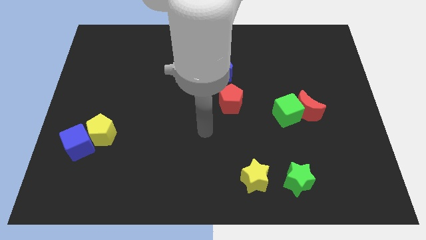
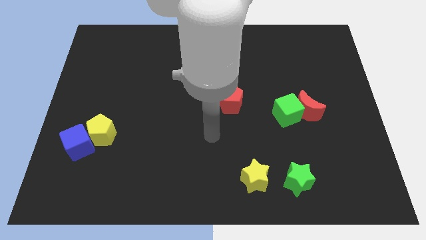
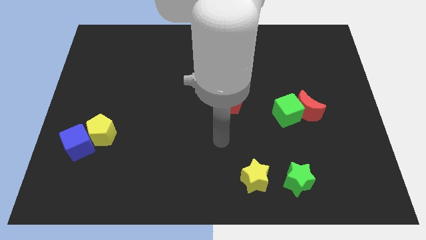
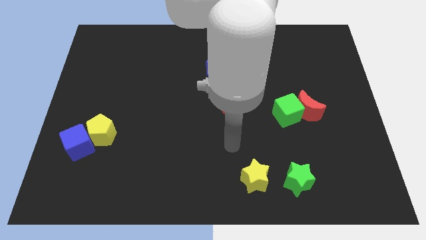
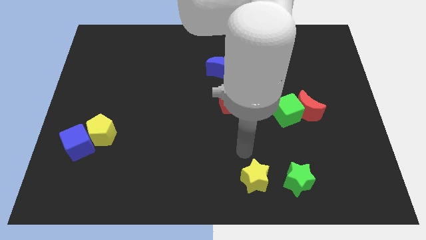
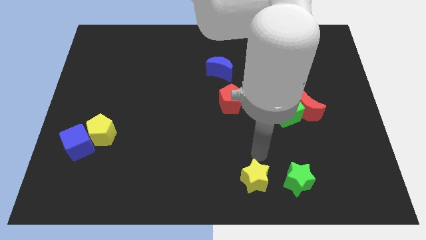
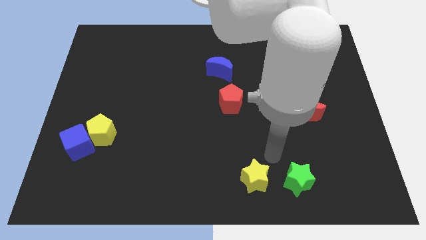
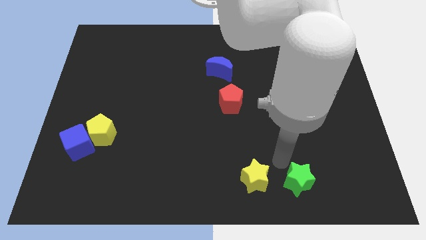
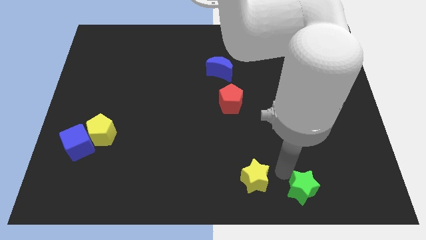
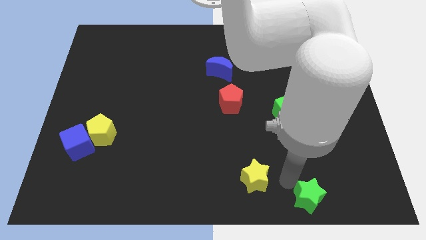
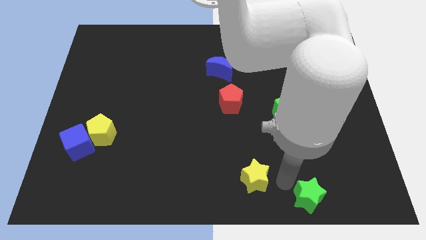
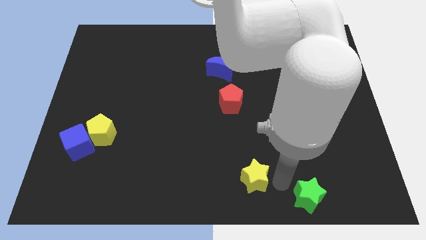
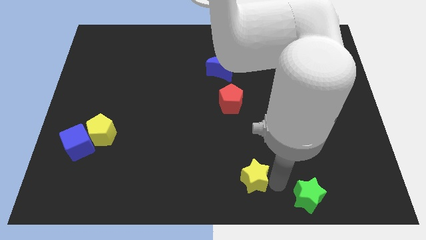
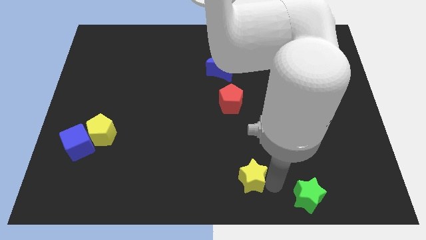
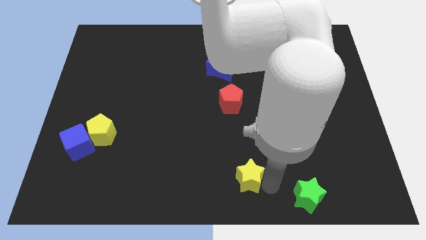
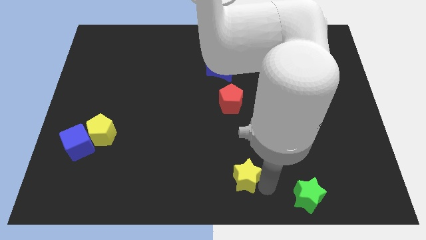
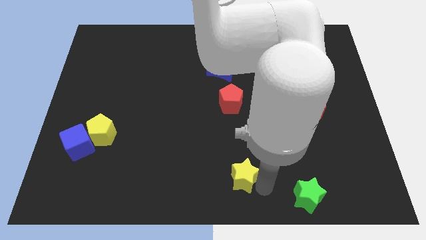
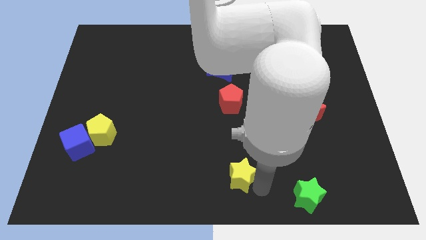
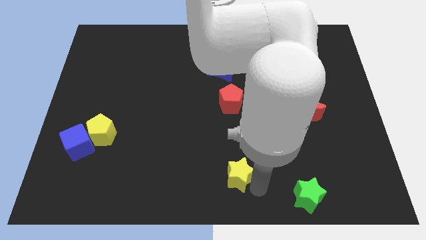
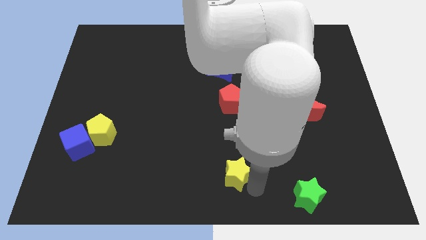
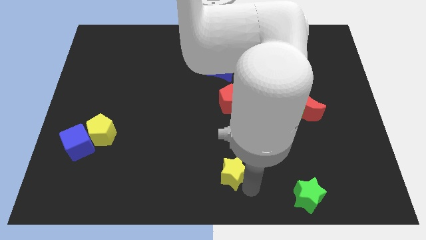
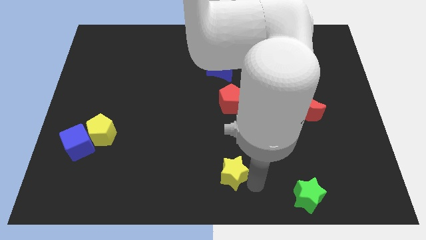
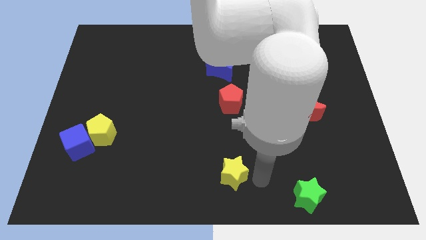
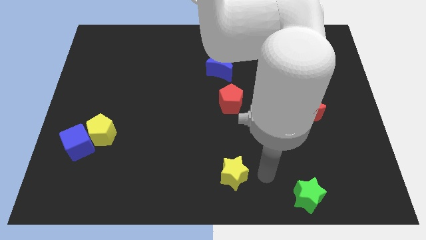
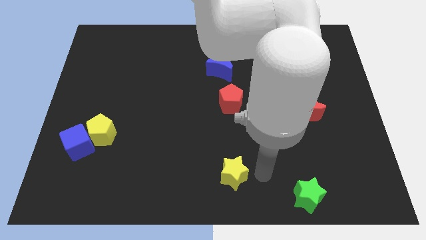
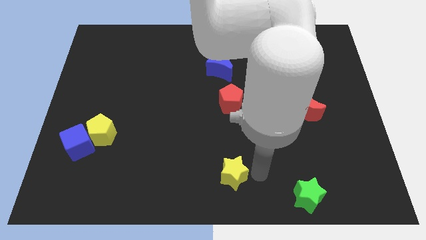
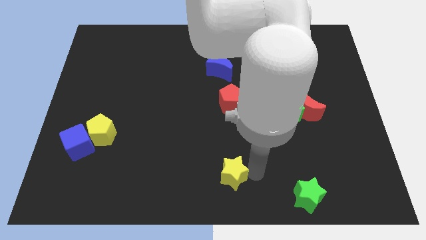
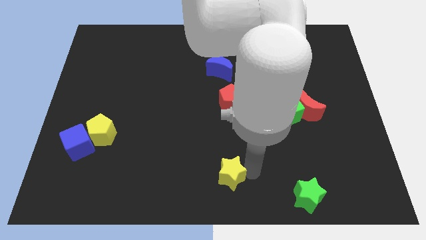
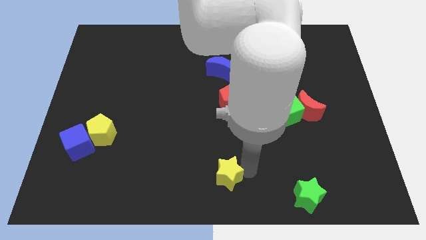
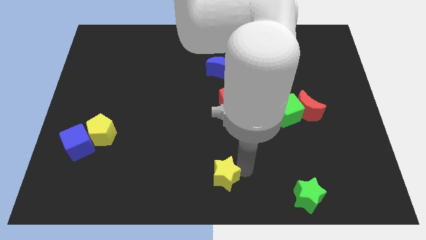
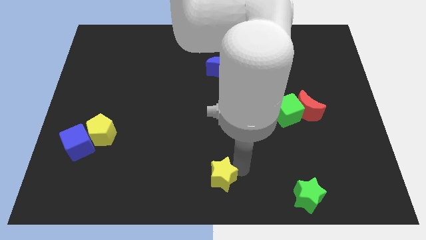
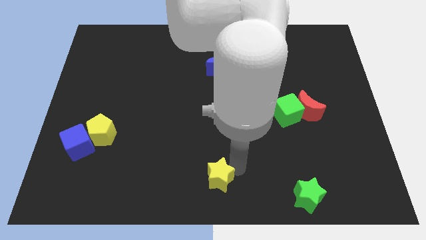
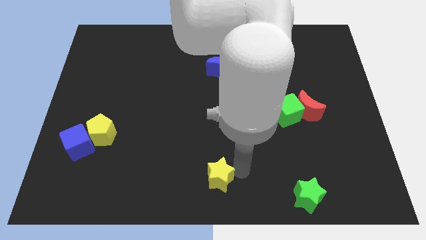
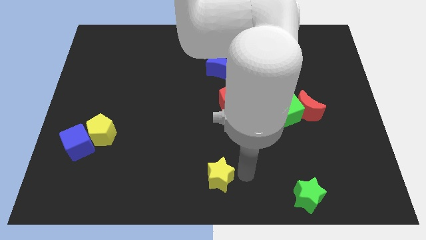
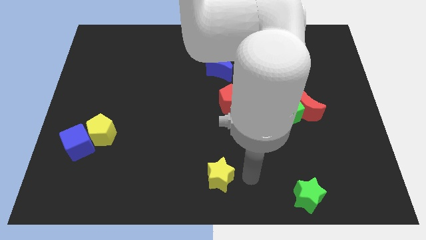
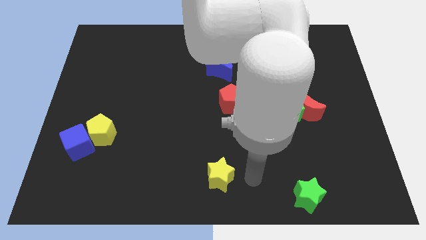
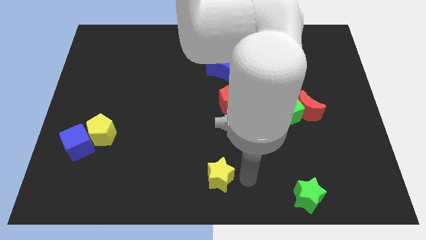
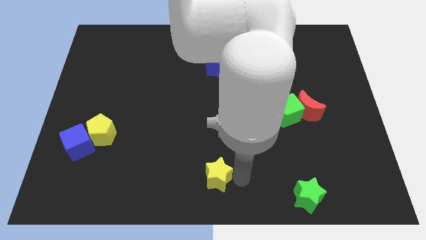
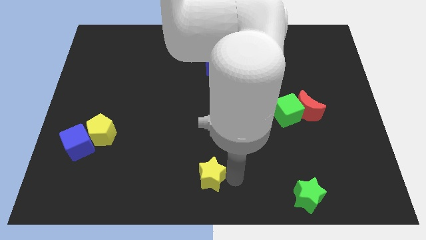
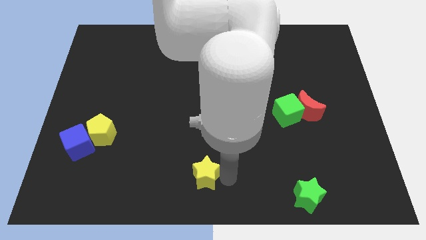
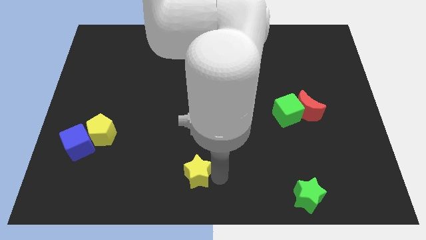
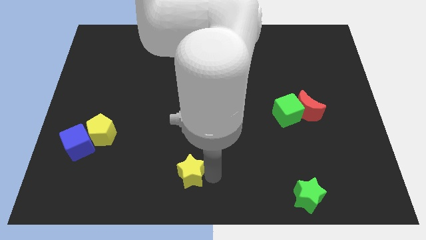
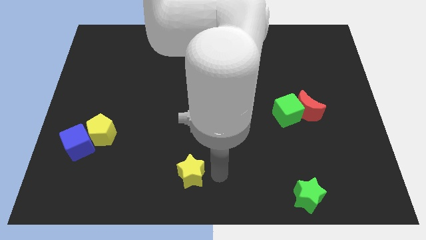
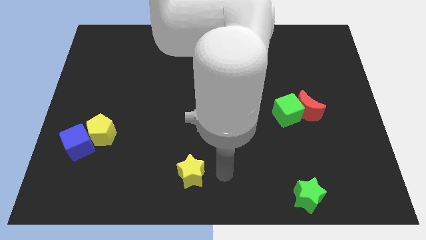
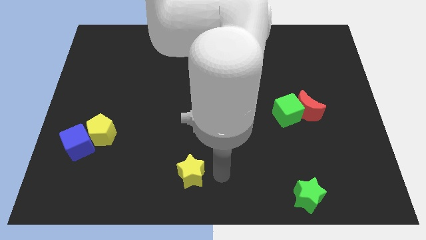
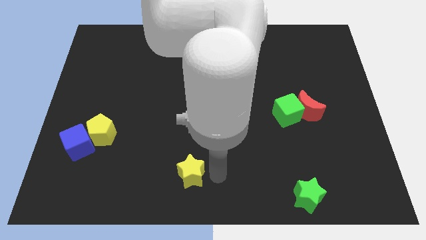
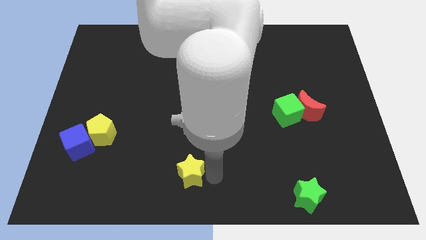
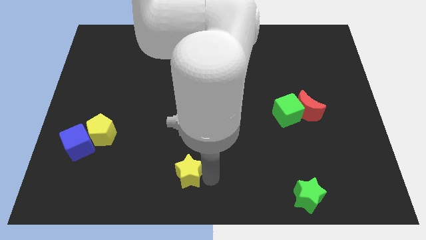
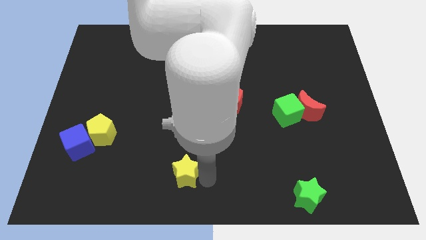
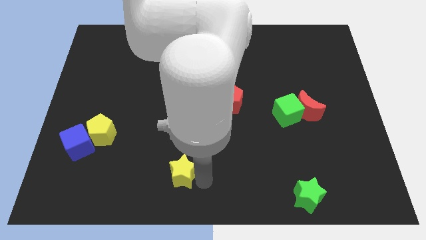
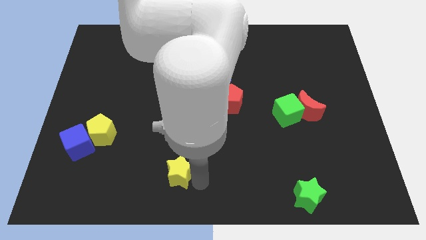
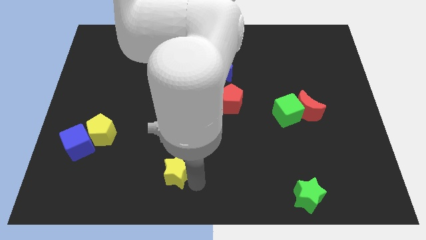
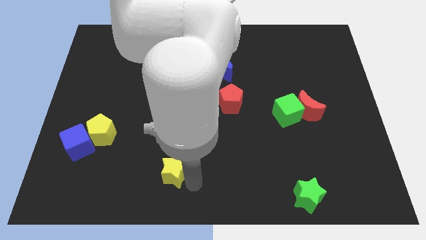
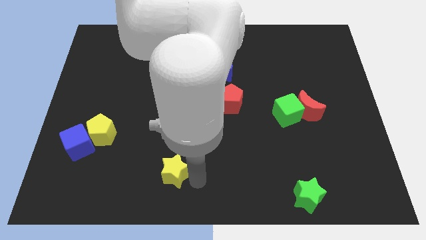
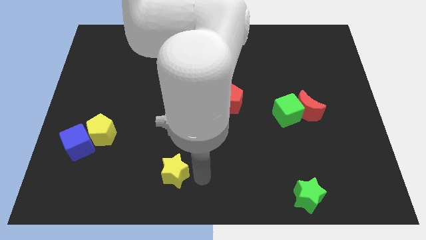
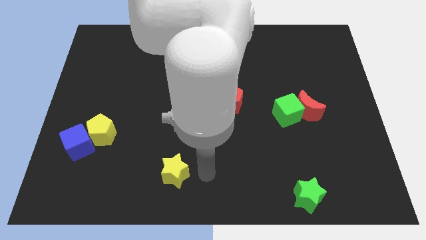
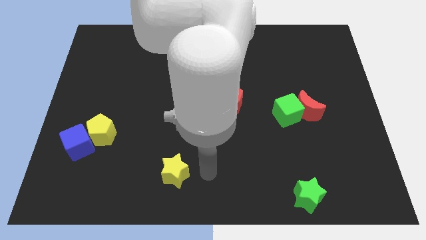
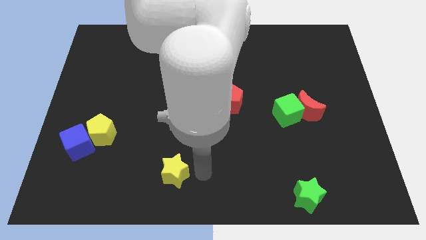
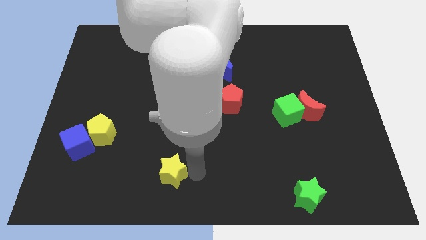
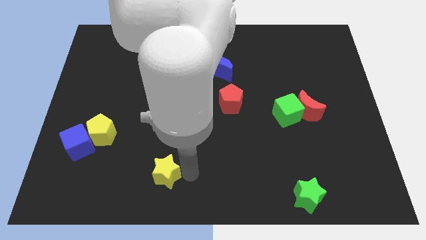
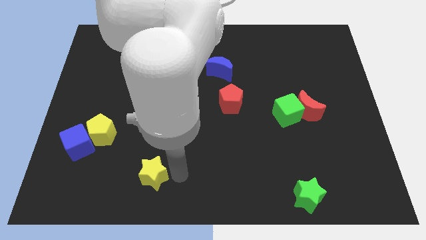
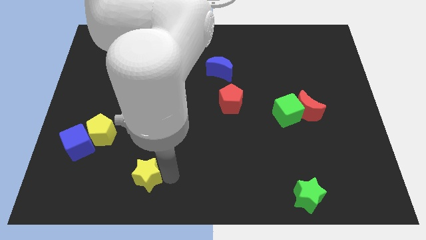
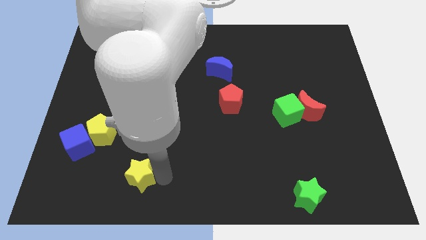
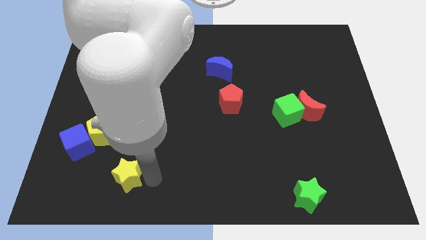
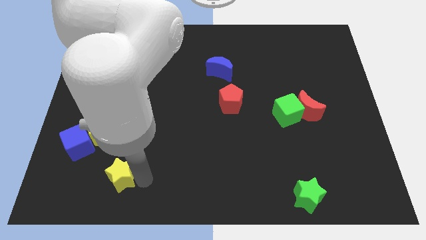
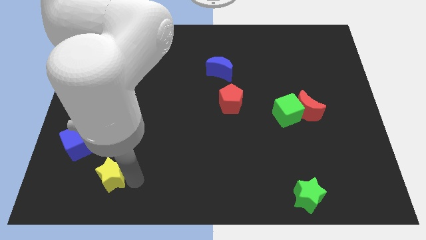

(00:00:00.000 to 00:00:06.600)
put the yellow star to the bottom right side of the blue cube

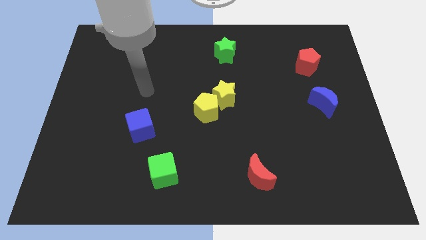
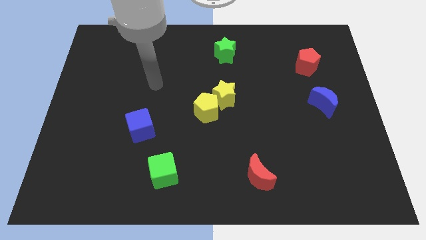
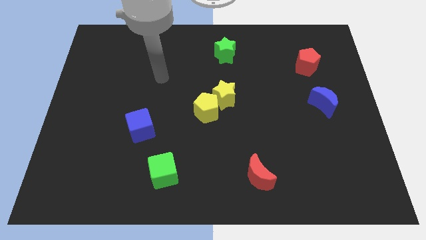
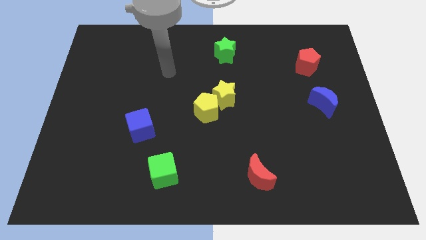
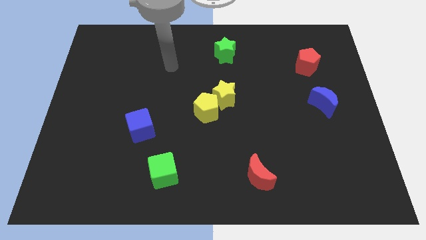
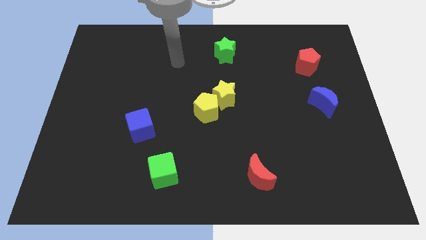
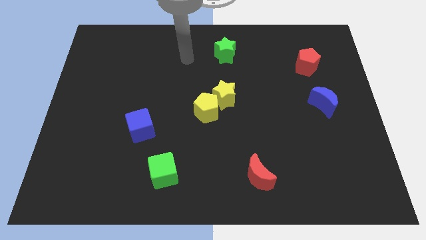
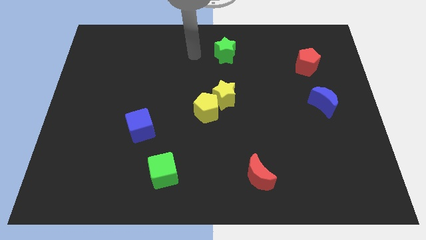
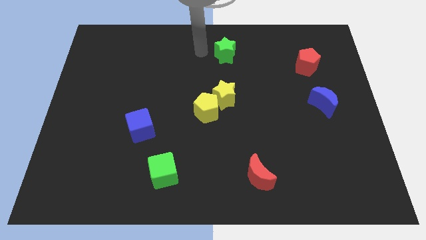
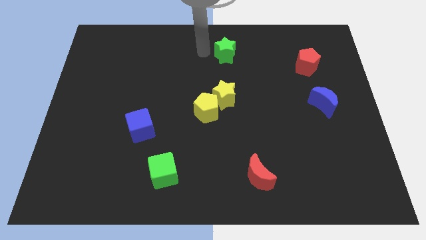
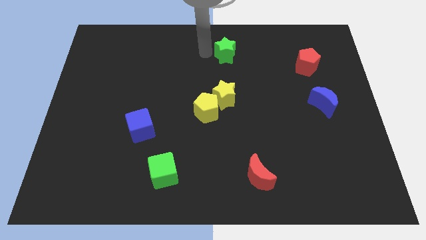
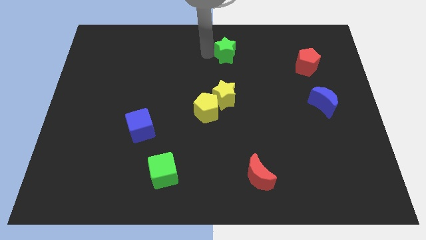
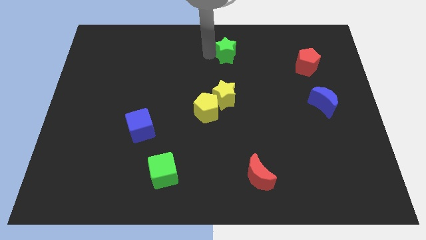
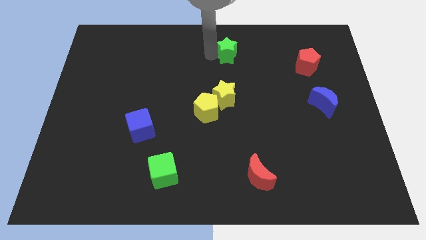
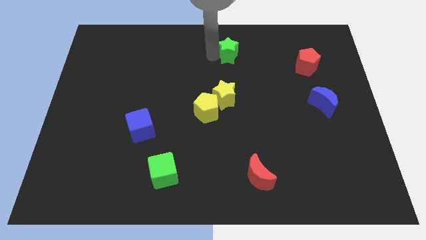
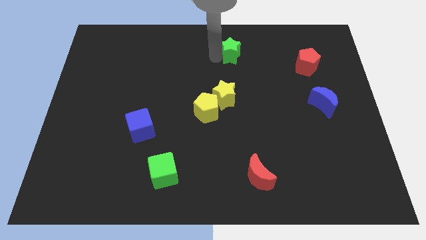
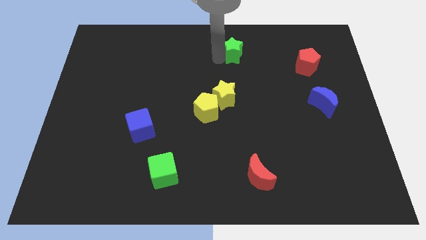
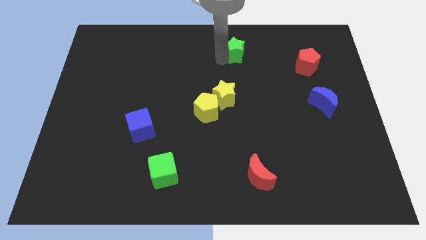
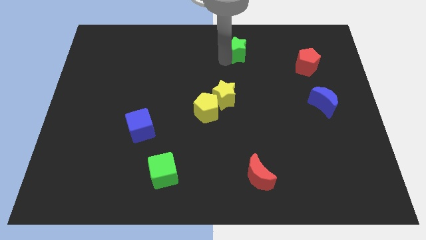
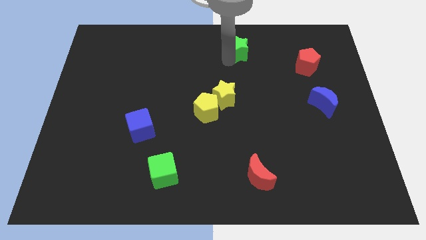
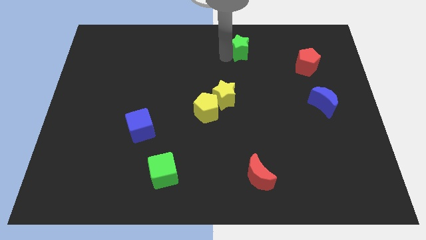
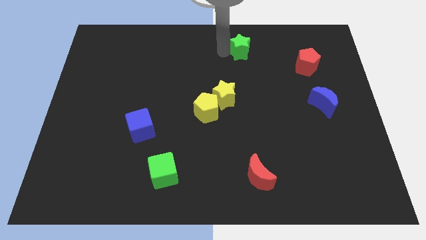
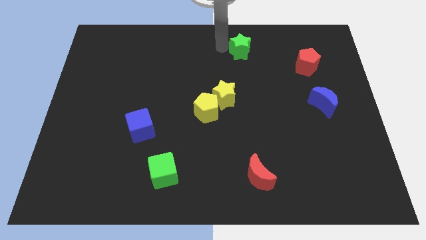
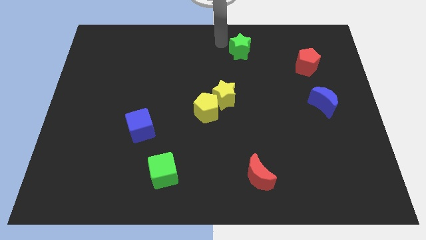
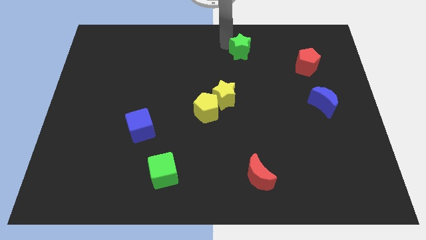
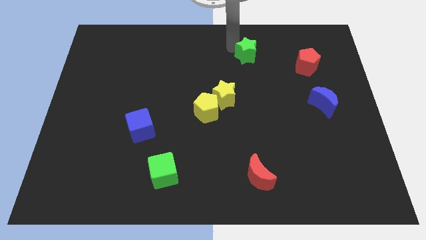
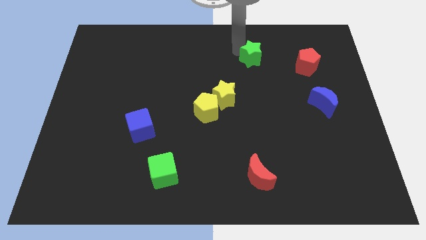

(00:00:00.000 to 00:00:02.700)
slide the green star to the left side of the red pentagon
